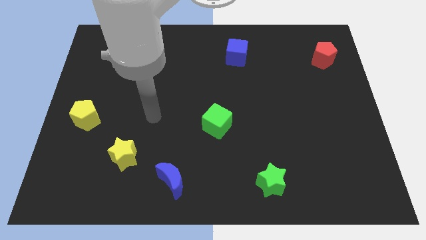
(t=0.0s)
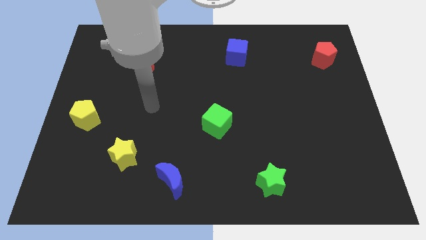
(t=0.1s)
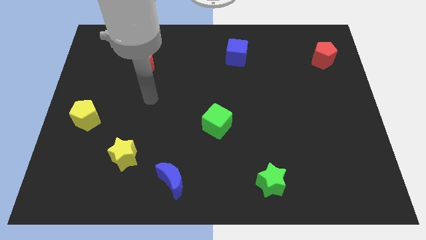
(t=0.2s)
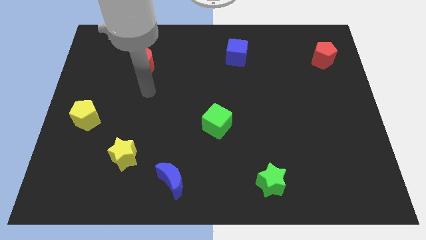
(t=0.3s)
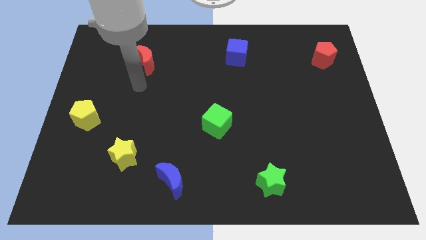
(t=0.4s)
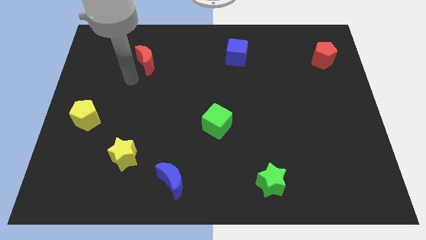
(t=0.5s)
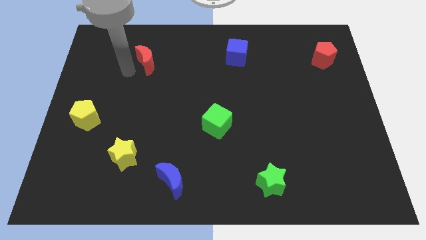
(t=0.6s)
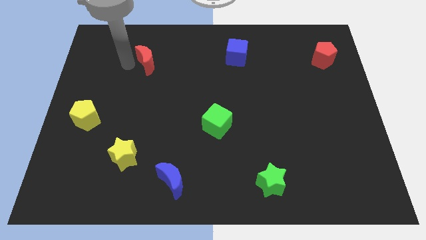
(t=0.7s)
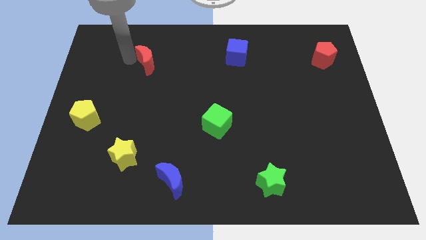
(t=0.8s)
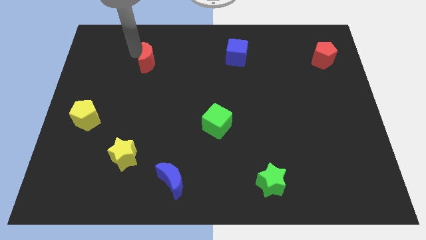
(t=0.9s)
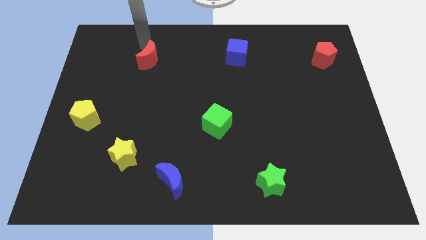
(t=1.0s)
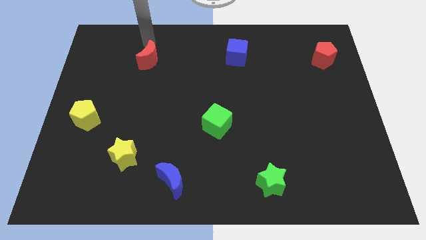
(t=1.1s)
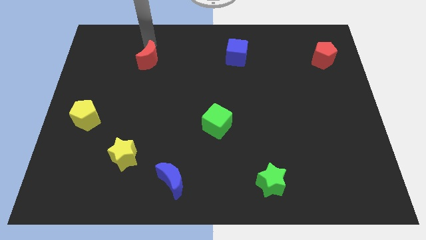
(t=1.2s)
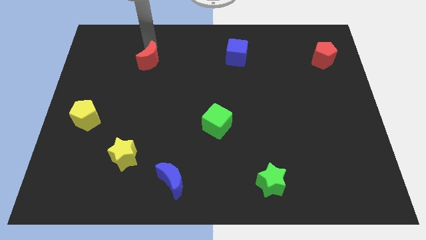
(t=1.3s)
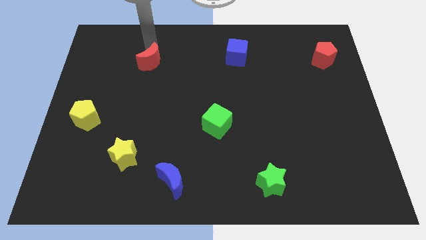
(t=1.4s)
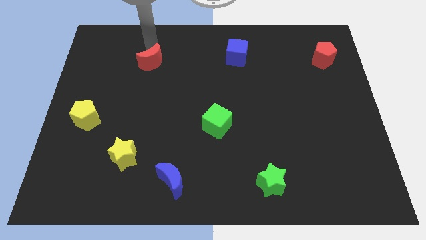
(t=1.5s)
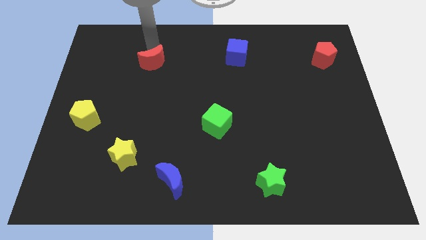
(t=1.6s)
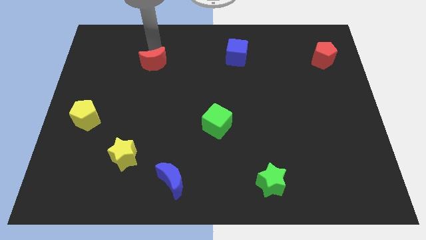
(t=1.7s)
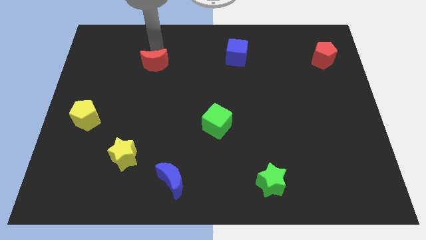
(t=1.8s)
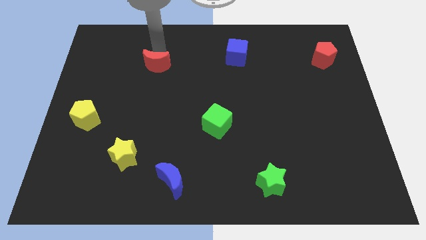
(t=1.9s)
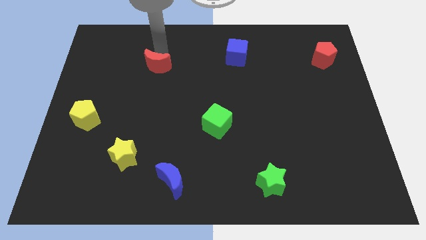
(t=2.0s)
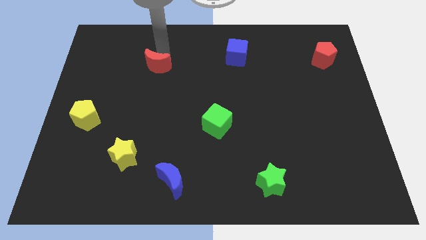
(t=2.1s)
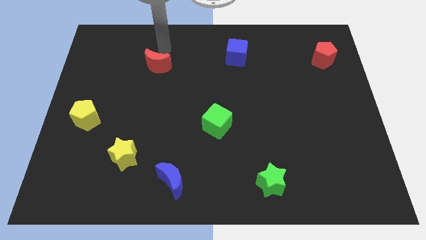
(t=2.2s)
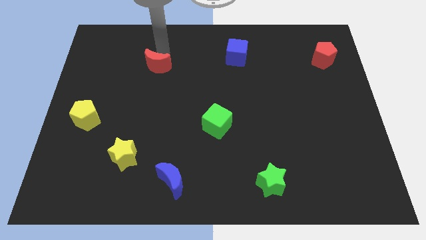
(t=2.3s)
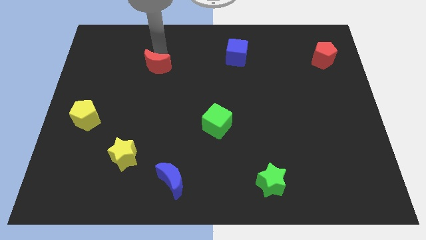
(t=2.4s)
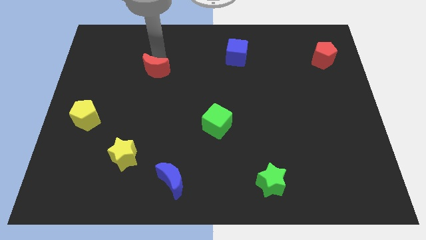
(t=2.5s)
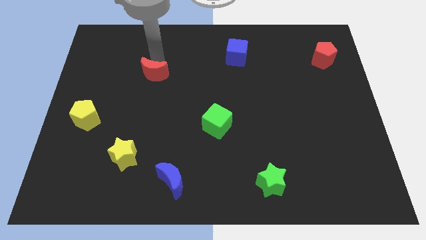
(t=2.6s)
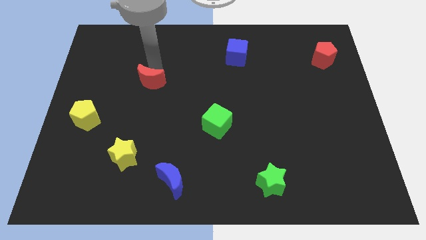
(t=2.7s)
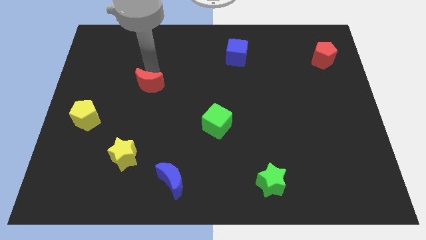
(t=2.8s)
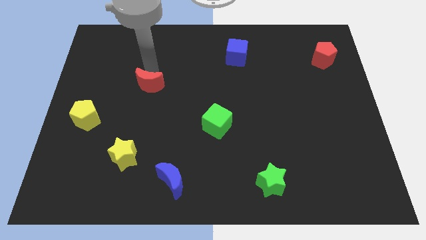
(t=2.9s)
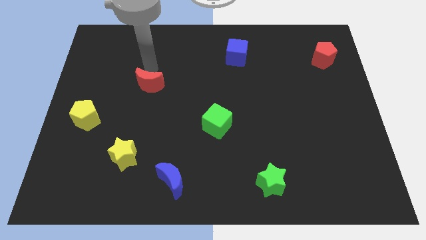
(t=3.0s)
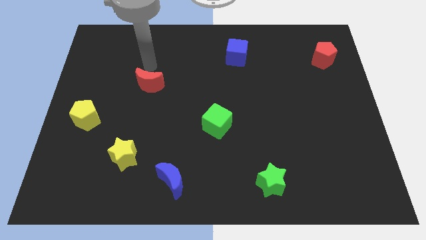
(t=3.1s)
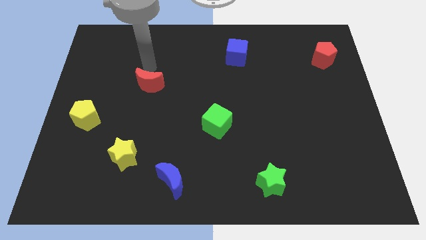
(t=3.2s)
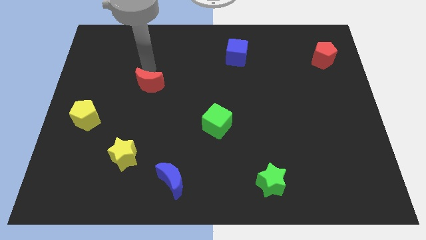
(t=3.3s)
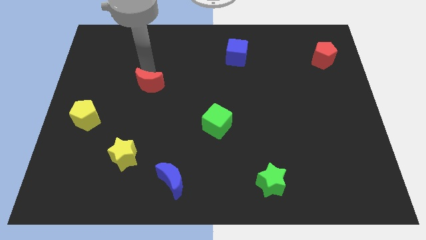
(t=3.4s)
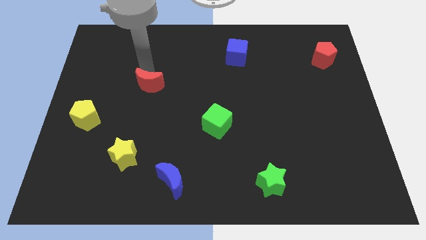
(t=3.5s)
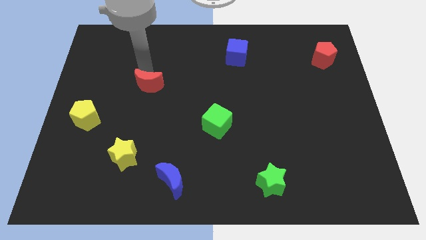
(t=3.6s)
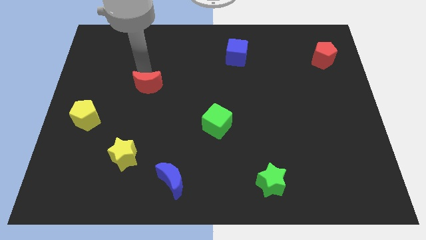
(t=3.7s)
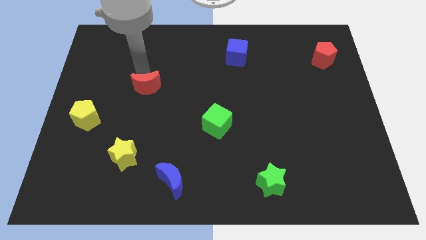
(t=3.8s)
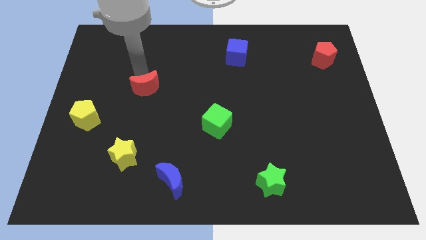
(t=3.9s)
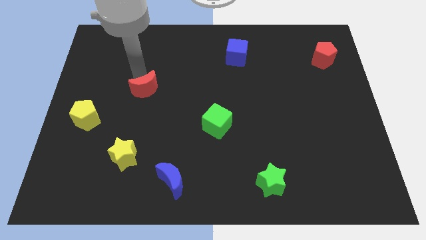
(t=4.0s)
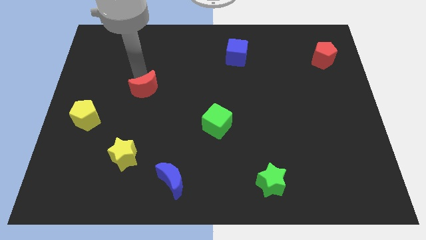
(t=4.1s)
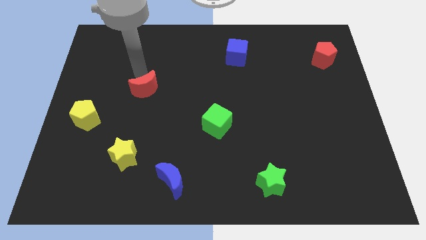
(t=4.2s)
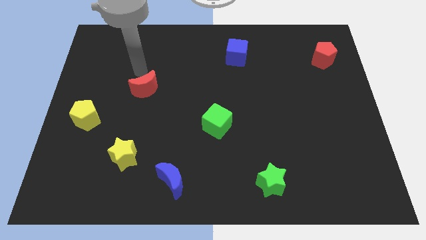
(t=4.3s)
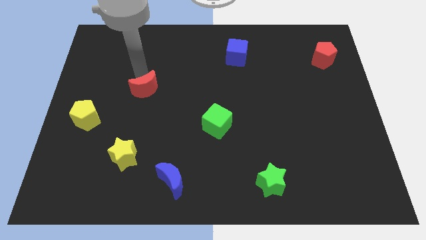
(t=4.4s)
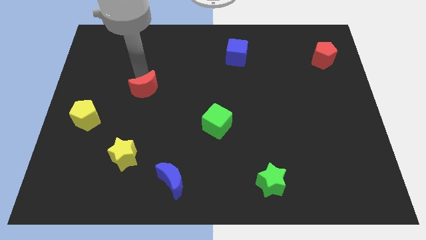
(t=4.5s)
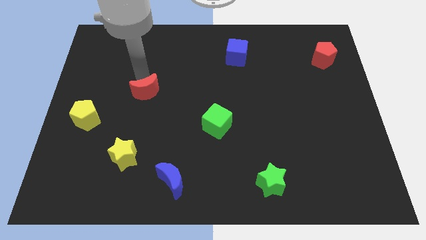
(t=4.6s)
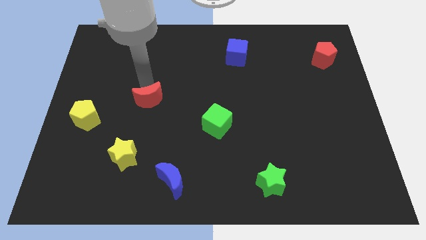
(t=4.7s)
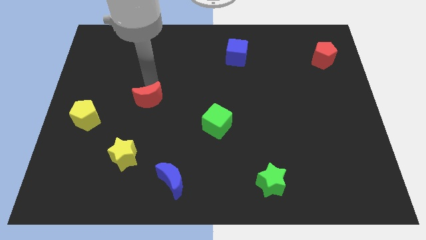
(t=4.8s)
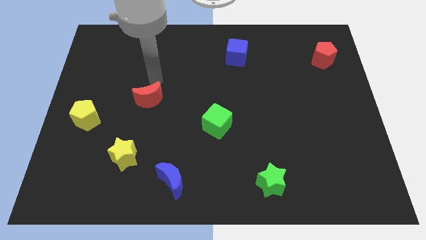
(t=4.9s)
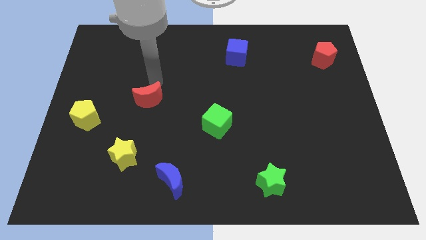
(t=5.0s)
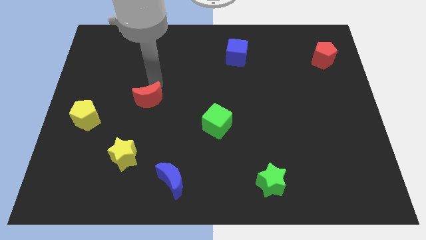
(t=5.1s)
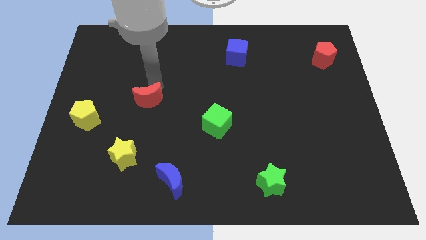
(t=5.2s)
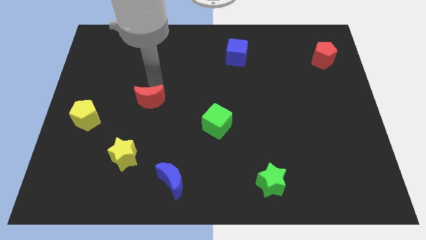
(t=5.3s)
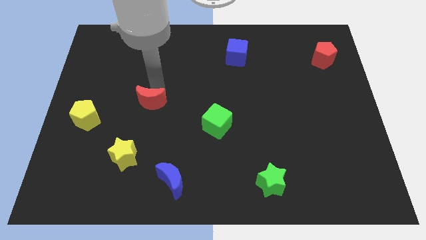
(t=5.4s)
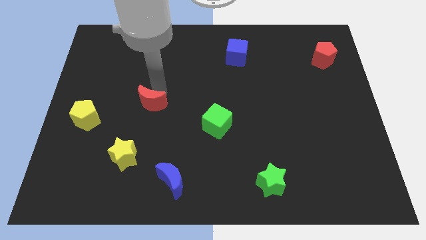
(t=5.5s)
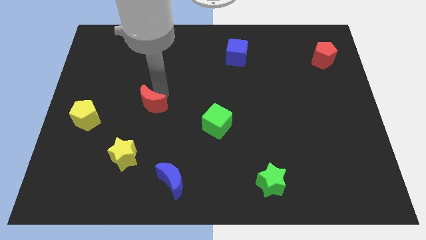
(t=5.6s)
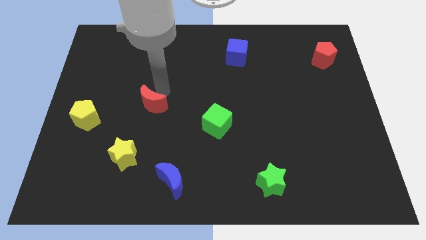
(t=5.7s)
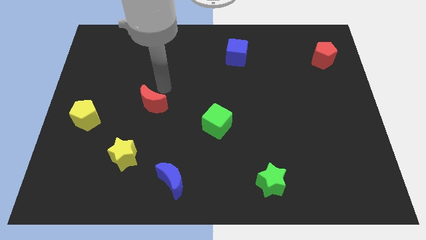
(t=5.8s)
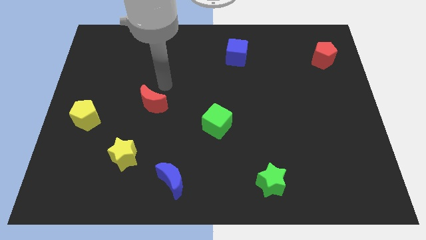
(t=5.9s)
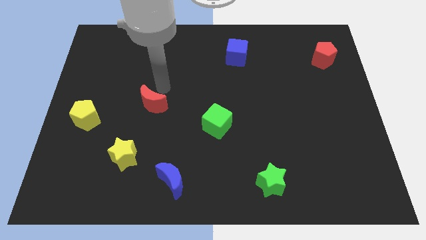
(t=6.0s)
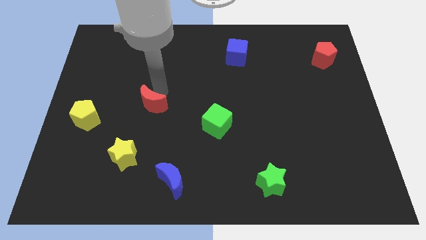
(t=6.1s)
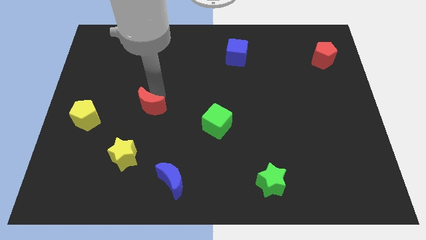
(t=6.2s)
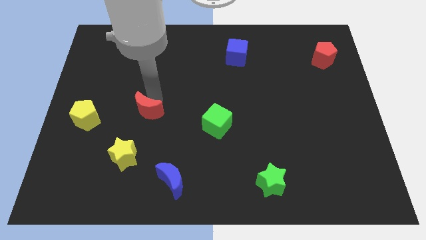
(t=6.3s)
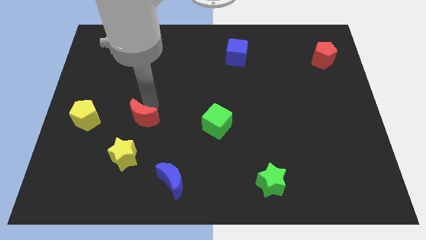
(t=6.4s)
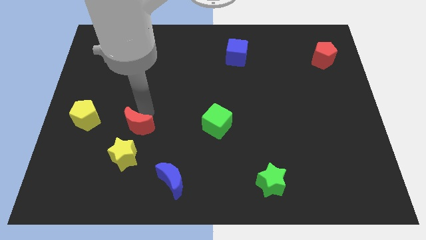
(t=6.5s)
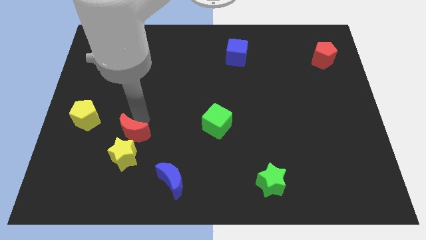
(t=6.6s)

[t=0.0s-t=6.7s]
push the red moon towards the yellow star

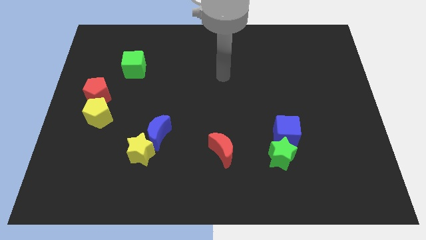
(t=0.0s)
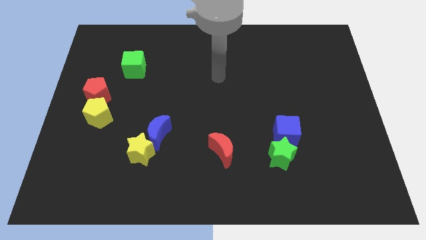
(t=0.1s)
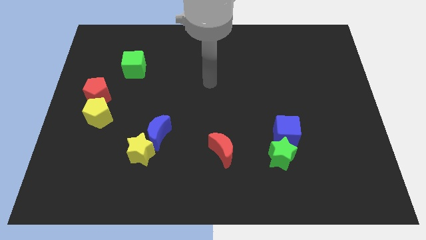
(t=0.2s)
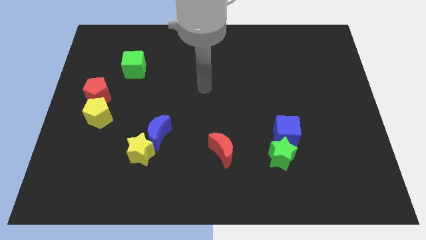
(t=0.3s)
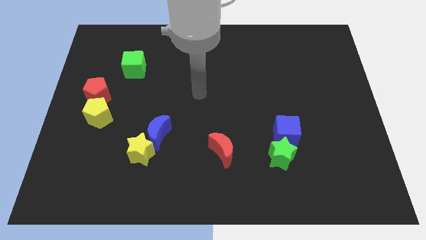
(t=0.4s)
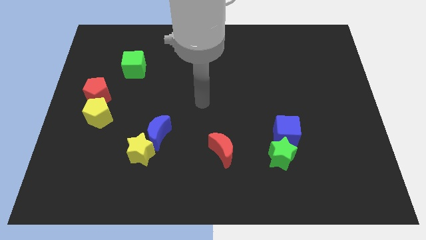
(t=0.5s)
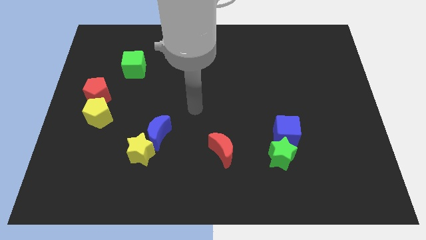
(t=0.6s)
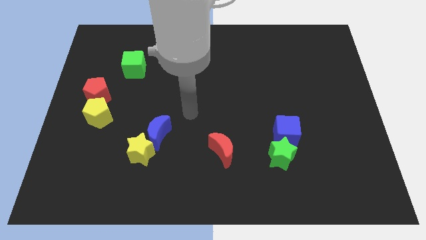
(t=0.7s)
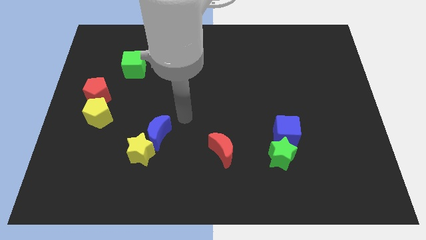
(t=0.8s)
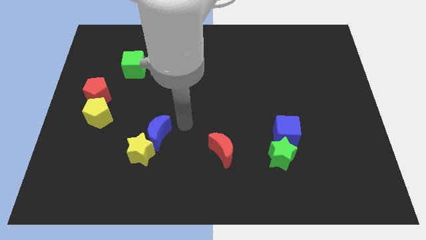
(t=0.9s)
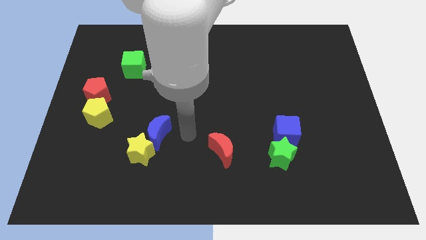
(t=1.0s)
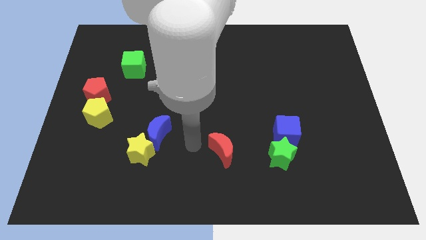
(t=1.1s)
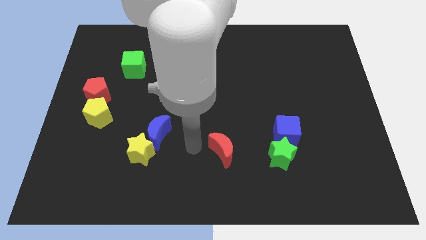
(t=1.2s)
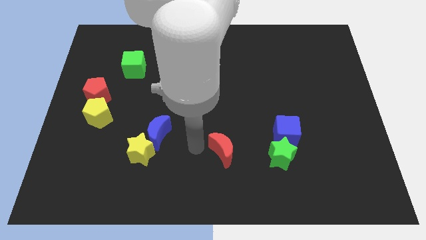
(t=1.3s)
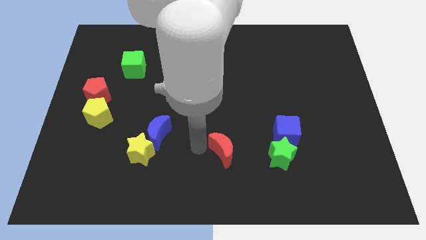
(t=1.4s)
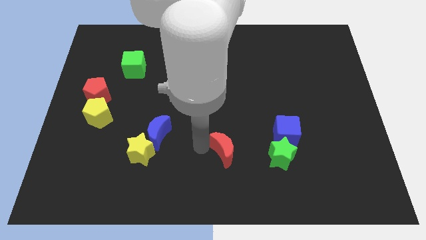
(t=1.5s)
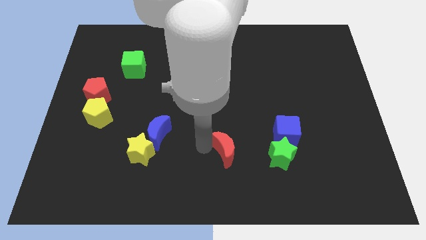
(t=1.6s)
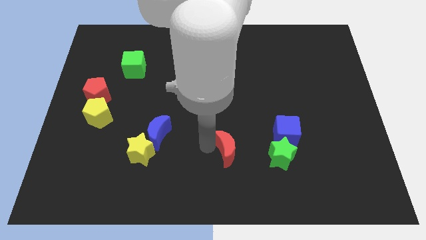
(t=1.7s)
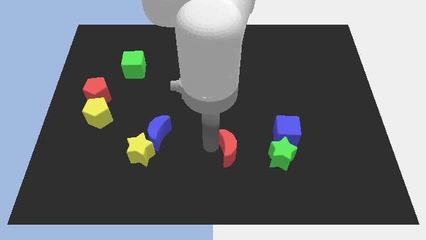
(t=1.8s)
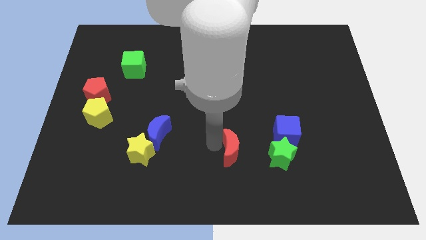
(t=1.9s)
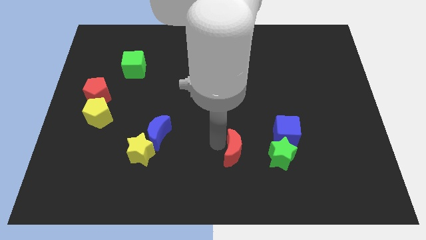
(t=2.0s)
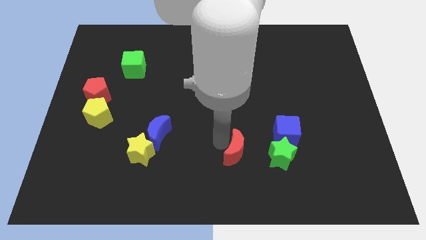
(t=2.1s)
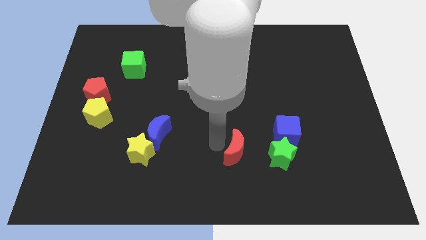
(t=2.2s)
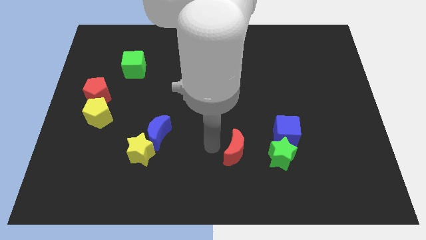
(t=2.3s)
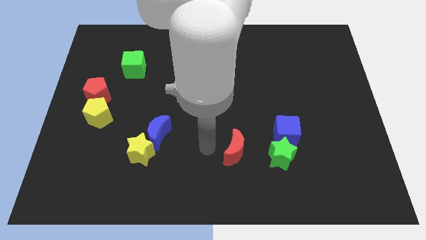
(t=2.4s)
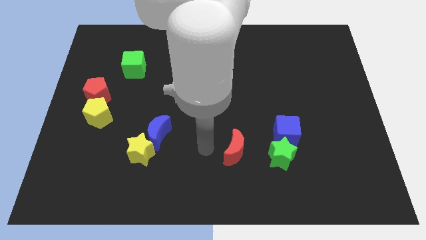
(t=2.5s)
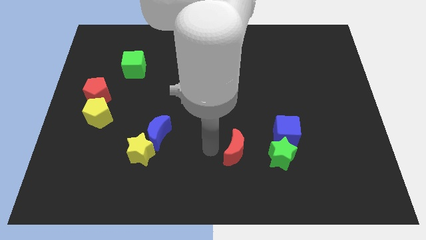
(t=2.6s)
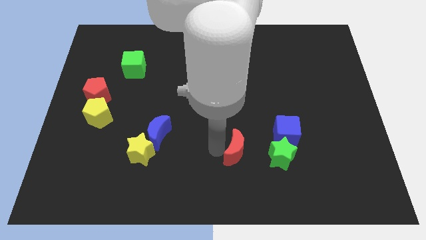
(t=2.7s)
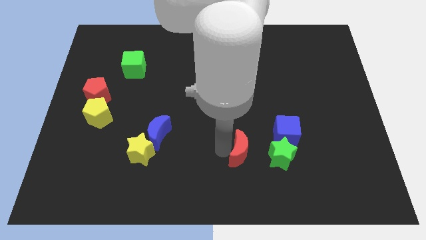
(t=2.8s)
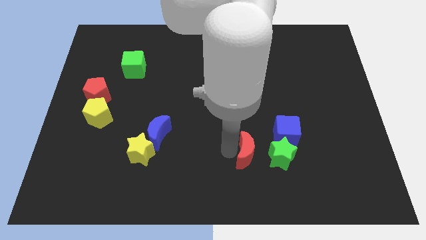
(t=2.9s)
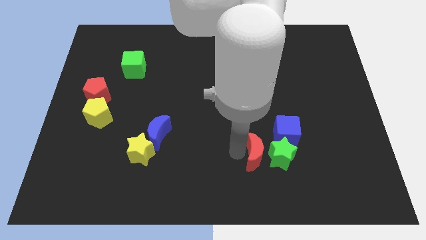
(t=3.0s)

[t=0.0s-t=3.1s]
slide the red moon next to the green star
